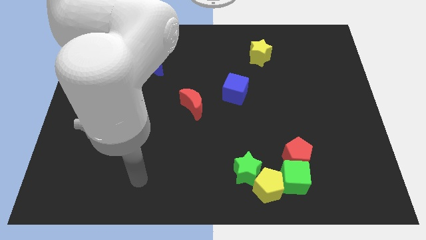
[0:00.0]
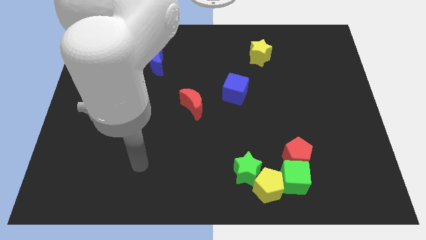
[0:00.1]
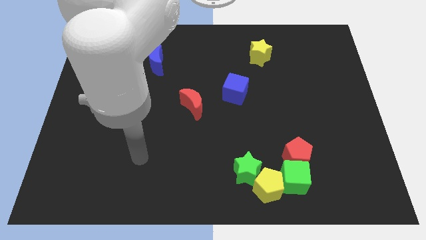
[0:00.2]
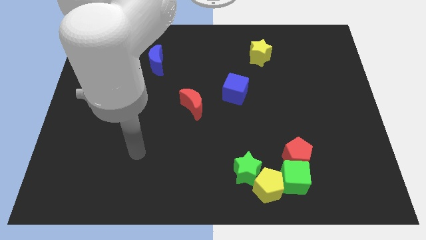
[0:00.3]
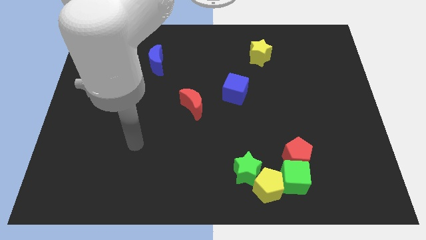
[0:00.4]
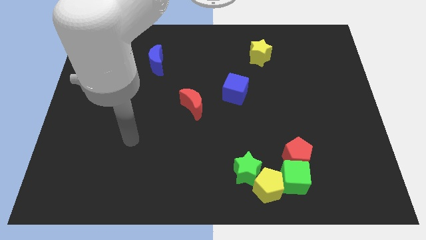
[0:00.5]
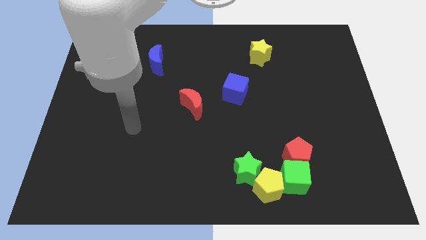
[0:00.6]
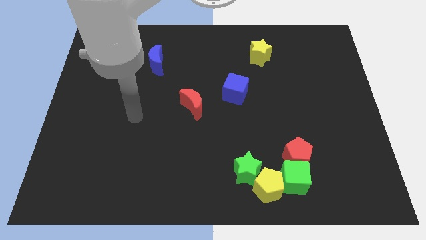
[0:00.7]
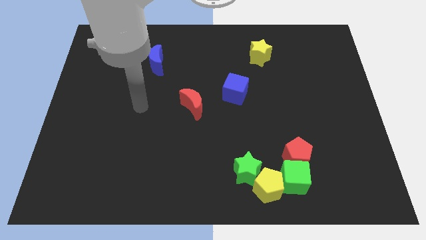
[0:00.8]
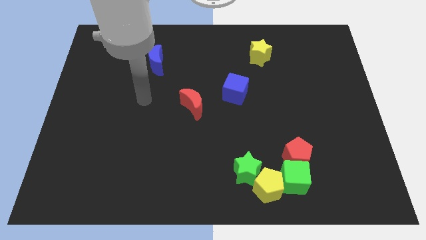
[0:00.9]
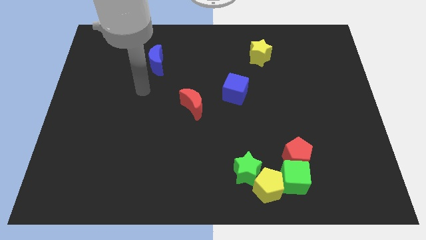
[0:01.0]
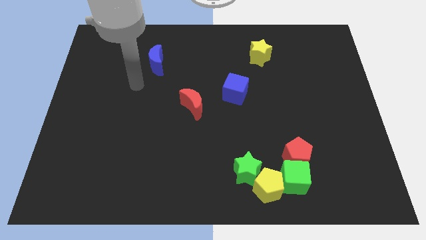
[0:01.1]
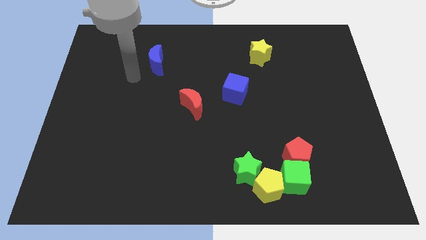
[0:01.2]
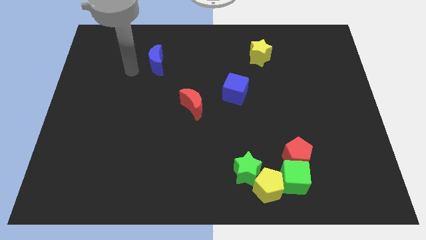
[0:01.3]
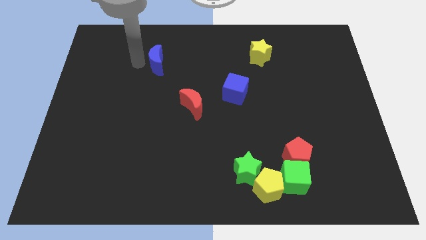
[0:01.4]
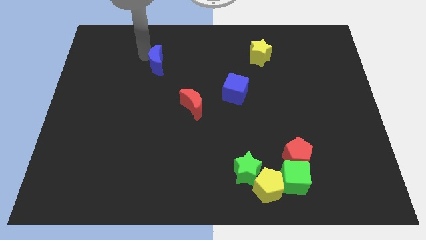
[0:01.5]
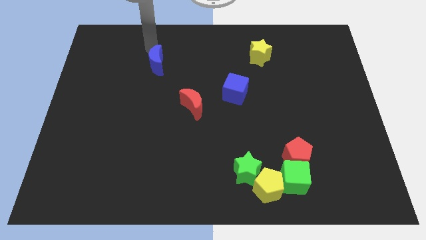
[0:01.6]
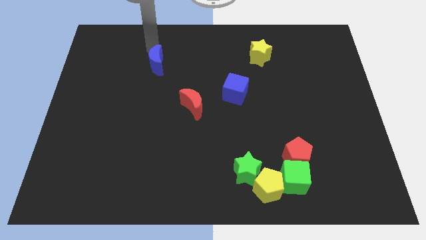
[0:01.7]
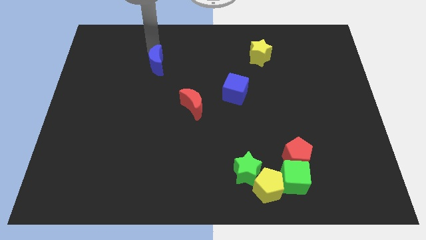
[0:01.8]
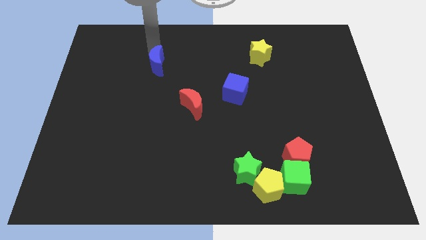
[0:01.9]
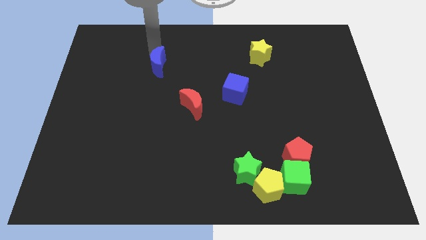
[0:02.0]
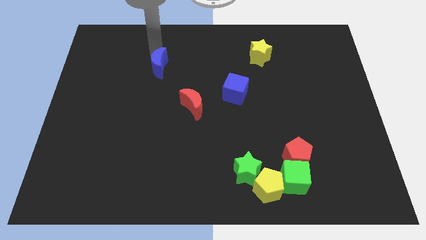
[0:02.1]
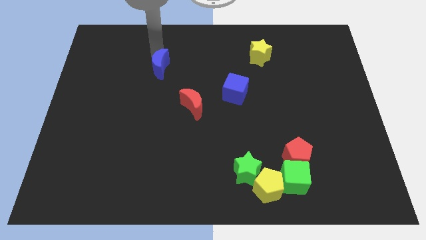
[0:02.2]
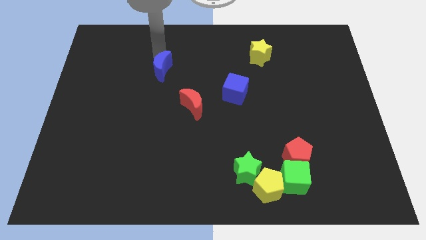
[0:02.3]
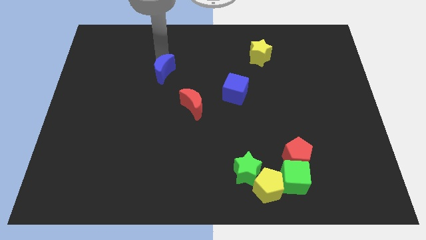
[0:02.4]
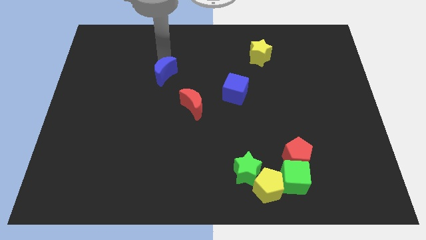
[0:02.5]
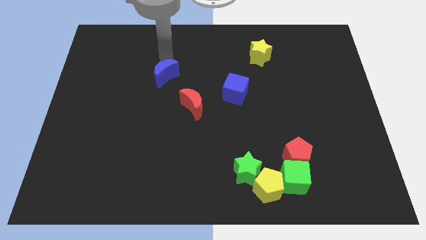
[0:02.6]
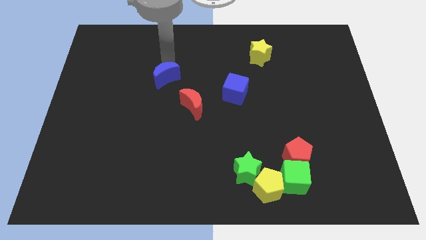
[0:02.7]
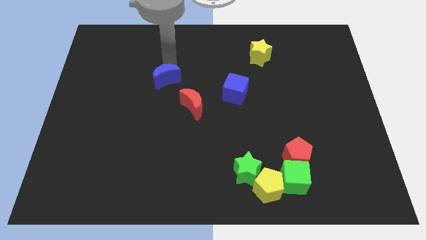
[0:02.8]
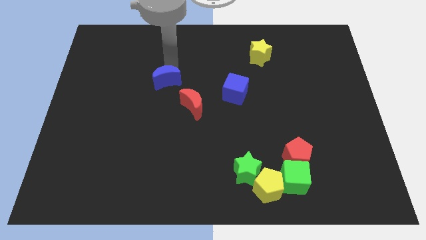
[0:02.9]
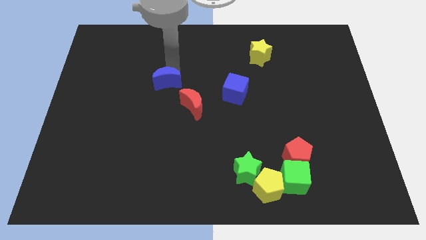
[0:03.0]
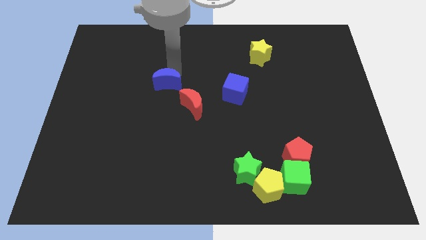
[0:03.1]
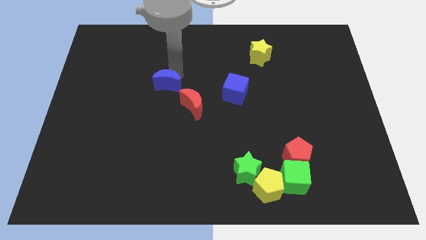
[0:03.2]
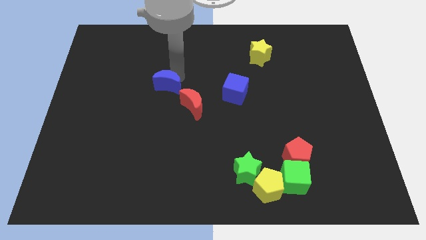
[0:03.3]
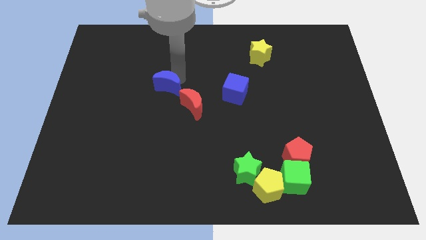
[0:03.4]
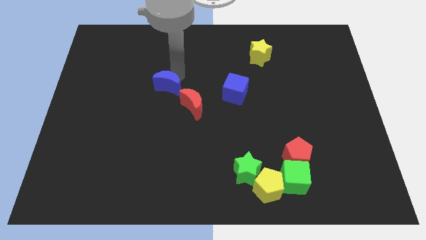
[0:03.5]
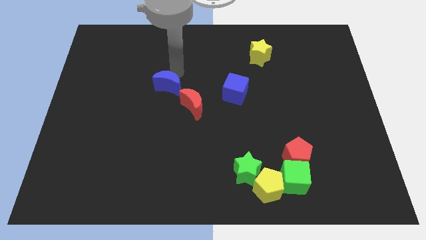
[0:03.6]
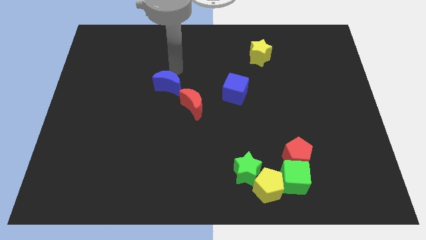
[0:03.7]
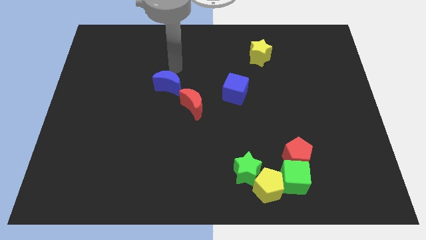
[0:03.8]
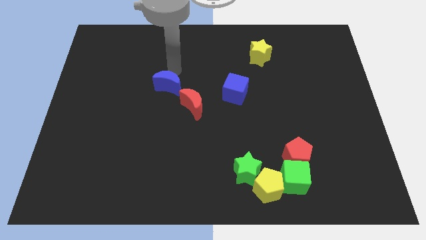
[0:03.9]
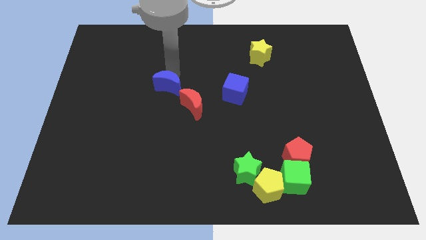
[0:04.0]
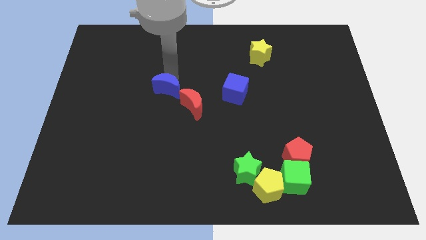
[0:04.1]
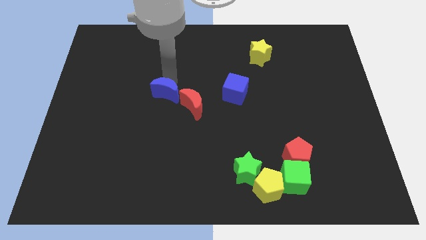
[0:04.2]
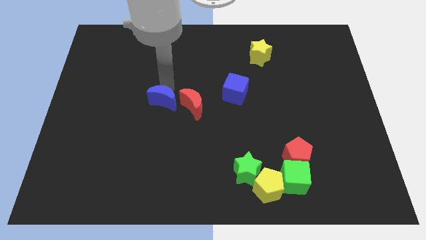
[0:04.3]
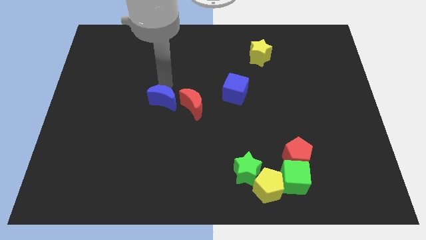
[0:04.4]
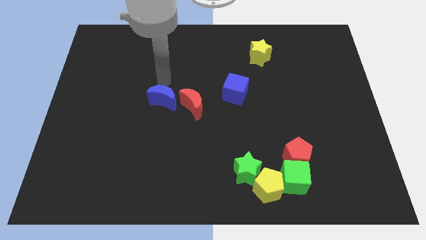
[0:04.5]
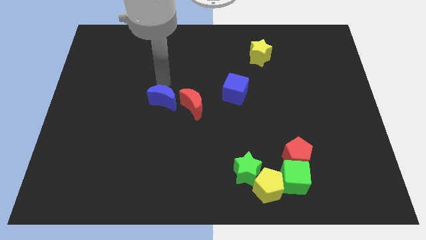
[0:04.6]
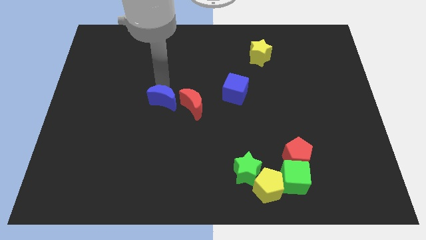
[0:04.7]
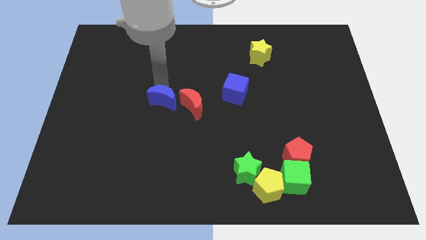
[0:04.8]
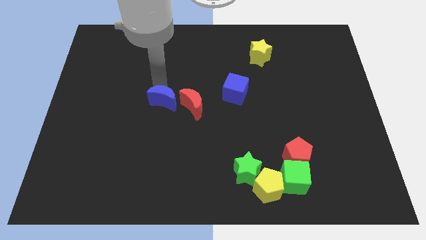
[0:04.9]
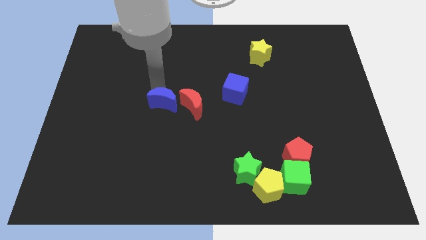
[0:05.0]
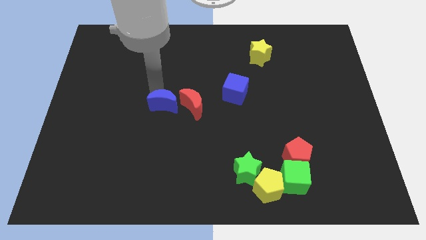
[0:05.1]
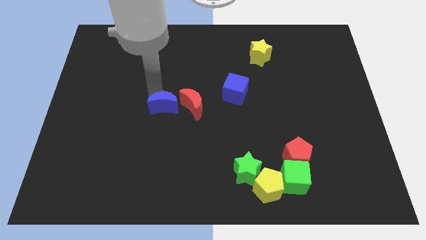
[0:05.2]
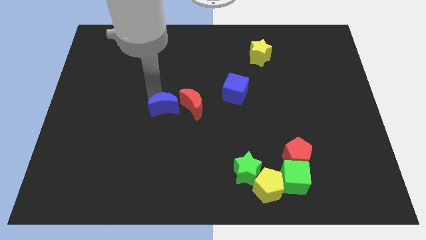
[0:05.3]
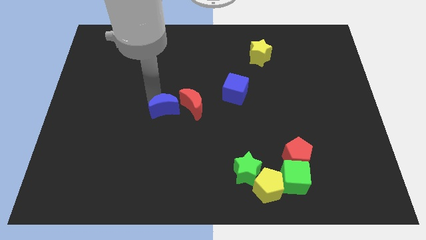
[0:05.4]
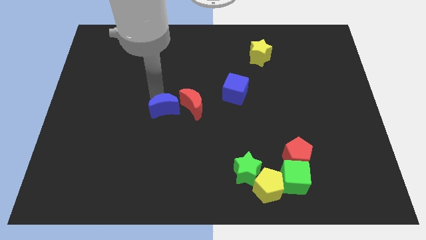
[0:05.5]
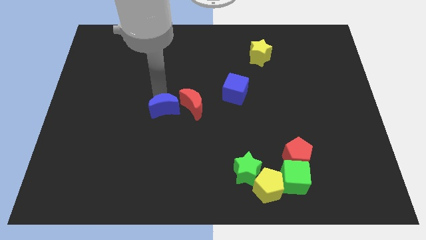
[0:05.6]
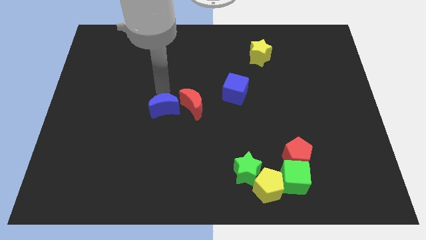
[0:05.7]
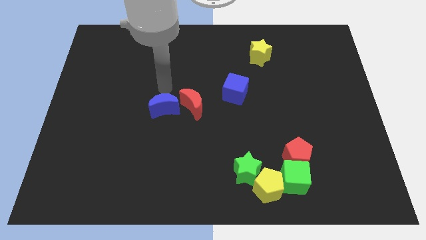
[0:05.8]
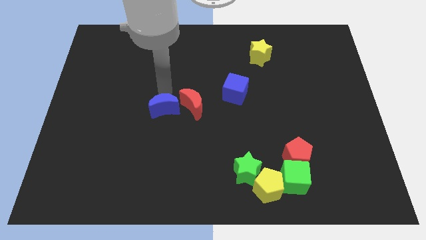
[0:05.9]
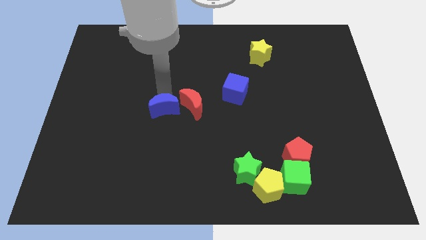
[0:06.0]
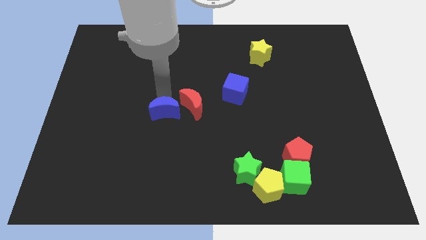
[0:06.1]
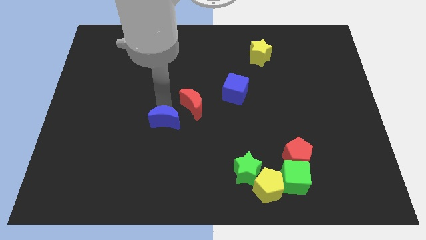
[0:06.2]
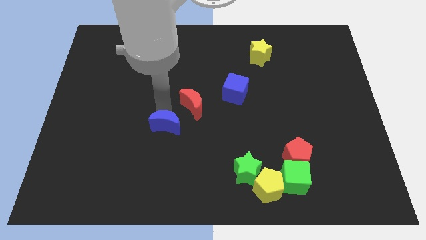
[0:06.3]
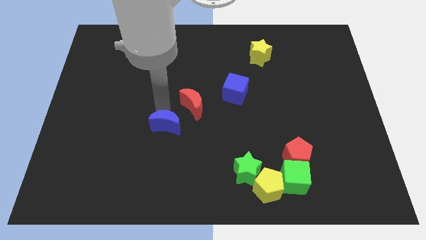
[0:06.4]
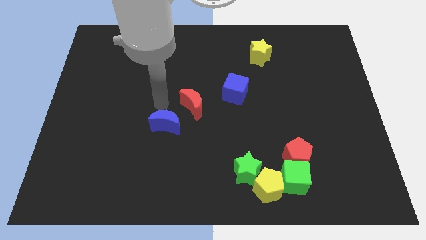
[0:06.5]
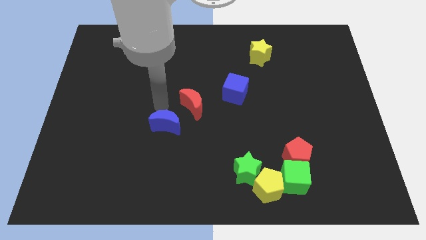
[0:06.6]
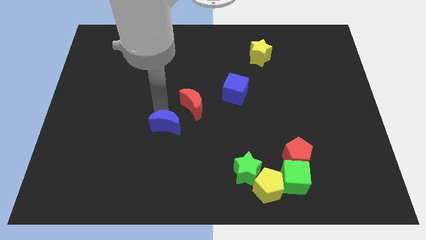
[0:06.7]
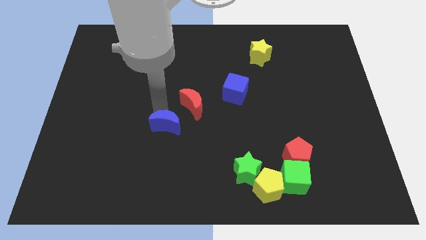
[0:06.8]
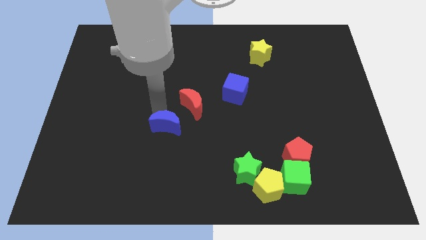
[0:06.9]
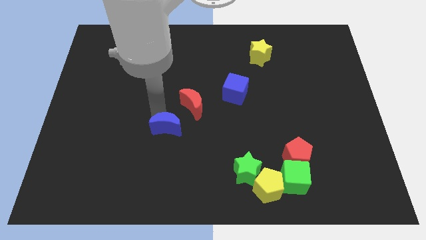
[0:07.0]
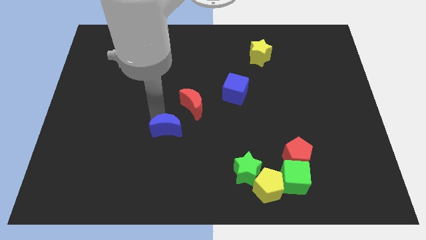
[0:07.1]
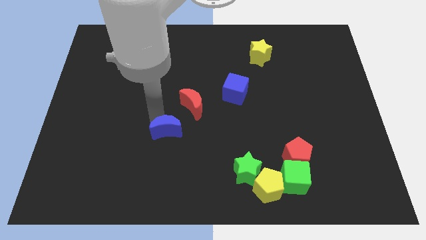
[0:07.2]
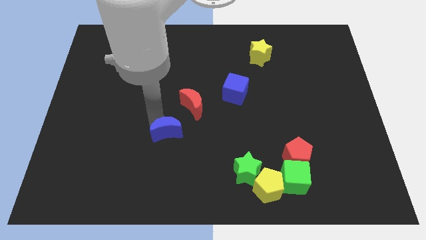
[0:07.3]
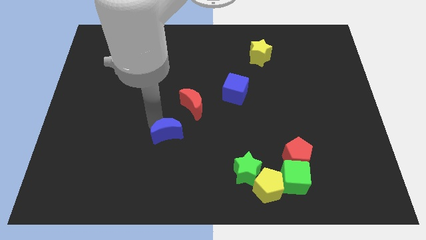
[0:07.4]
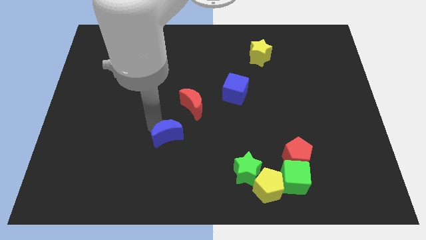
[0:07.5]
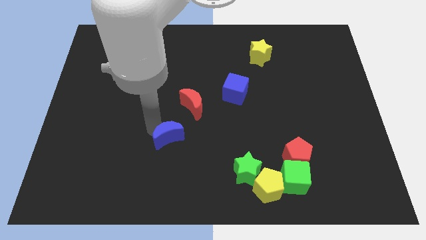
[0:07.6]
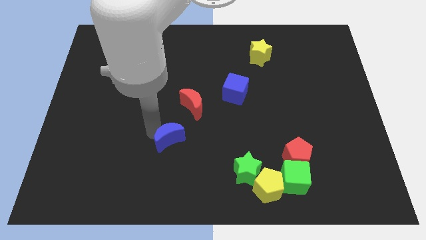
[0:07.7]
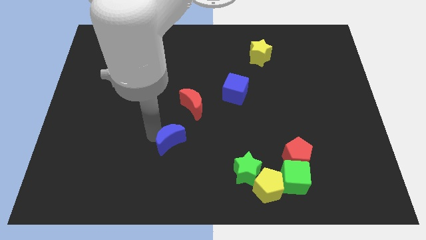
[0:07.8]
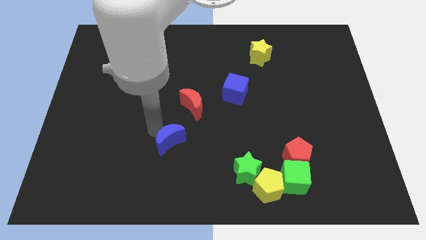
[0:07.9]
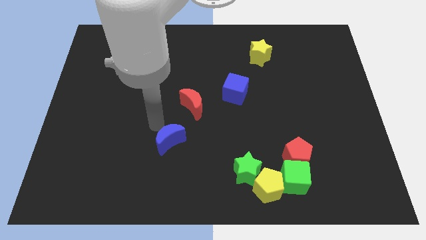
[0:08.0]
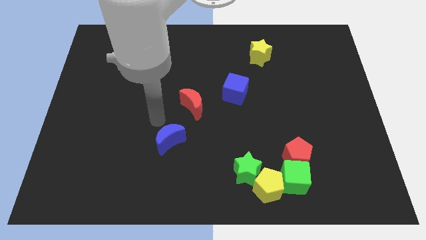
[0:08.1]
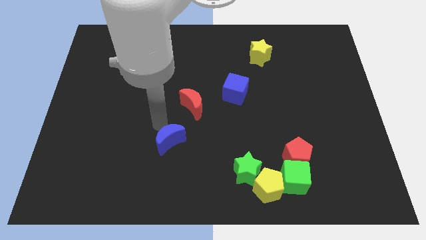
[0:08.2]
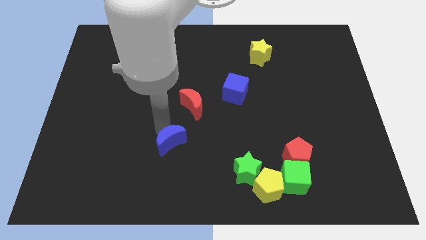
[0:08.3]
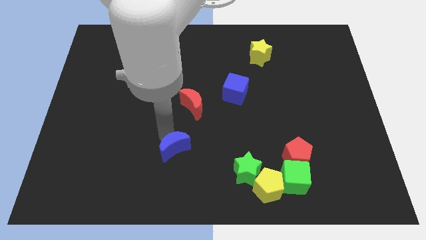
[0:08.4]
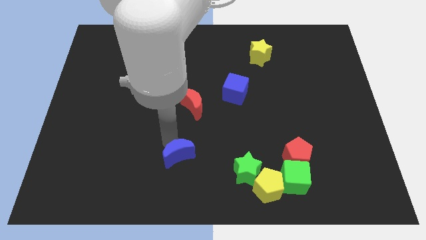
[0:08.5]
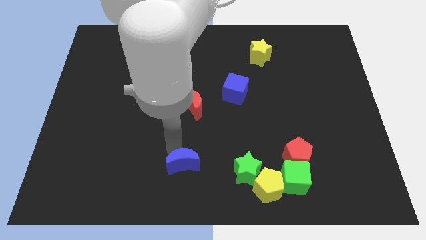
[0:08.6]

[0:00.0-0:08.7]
push the blue moon to the bottom side
